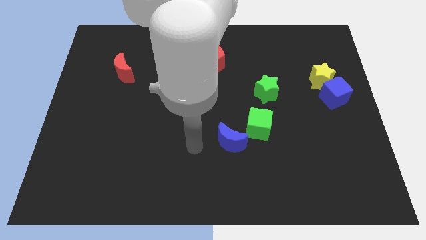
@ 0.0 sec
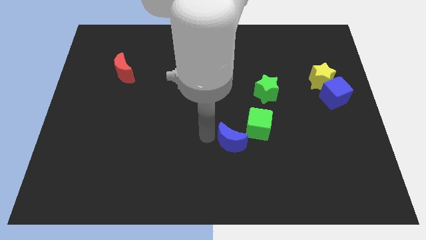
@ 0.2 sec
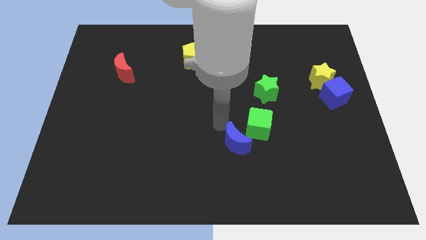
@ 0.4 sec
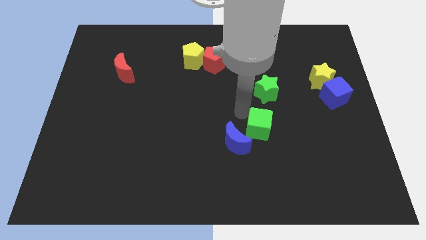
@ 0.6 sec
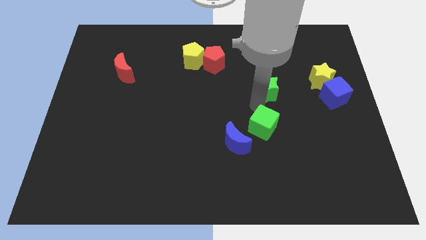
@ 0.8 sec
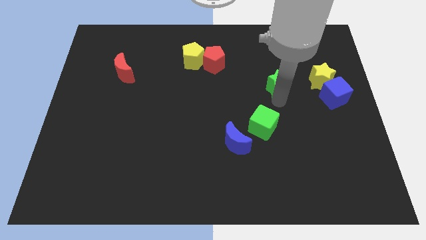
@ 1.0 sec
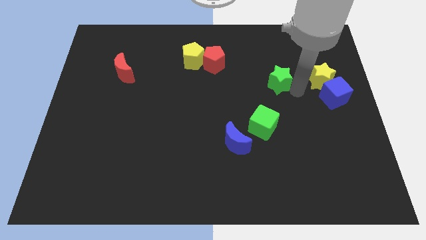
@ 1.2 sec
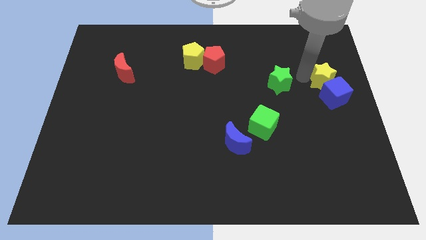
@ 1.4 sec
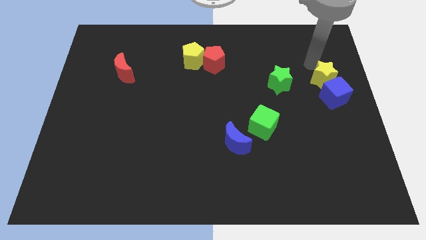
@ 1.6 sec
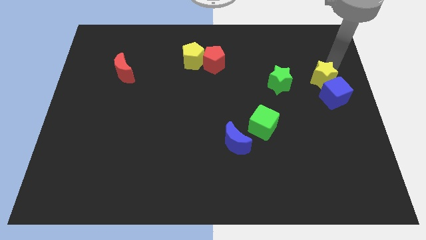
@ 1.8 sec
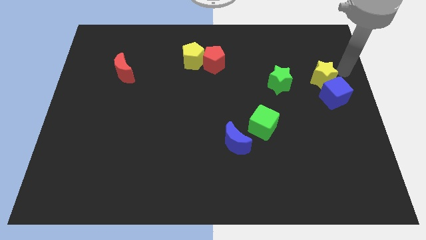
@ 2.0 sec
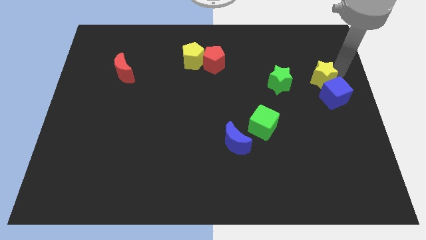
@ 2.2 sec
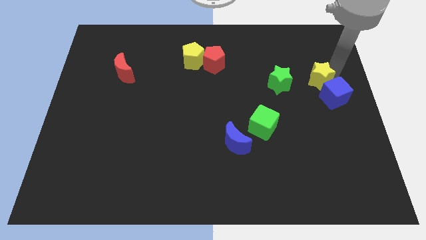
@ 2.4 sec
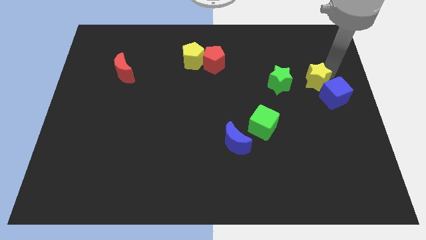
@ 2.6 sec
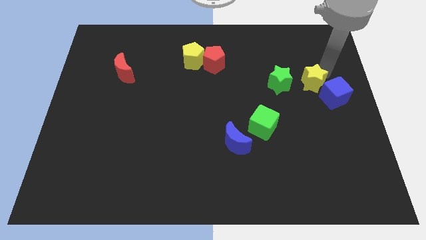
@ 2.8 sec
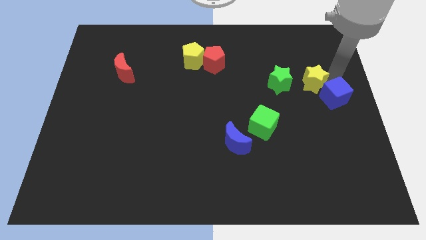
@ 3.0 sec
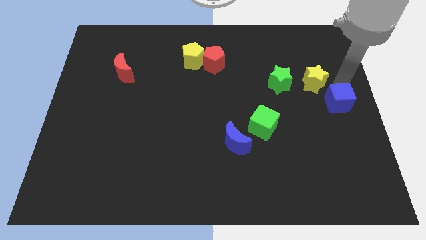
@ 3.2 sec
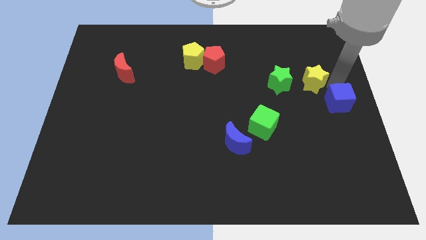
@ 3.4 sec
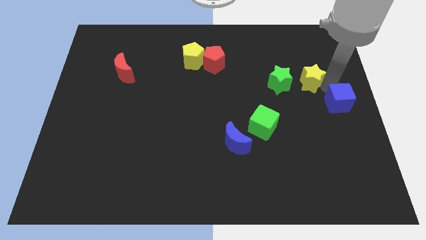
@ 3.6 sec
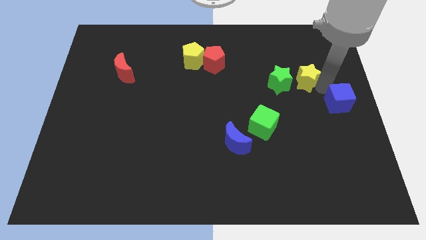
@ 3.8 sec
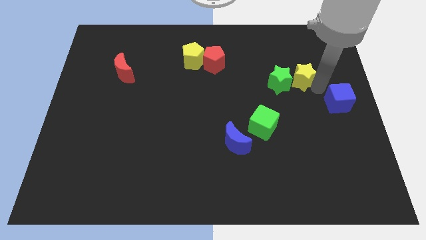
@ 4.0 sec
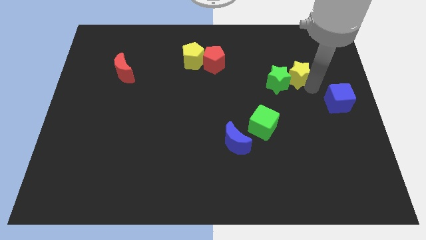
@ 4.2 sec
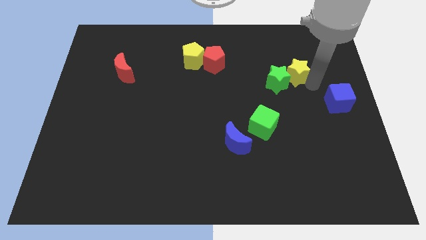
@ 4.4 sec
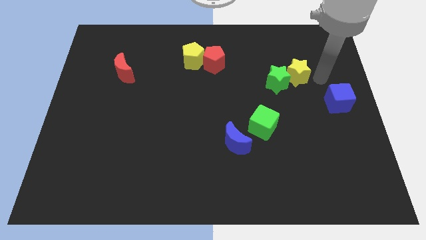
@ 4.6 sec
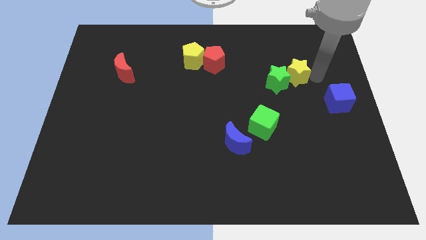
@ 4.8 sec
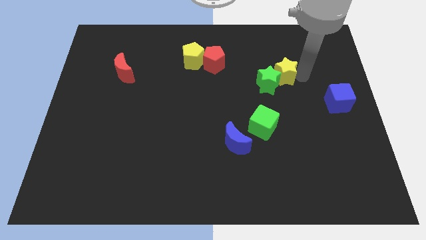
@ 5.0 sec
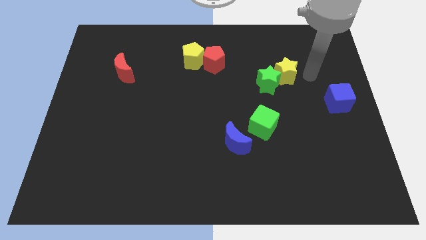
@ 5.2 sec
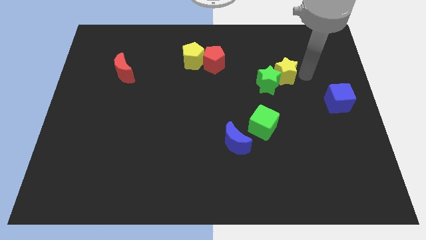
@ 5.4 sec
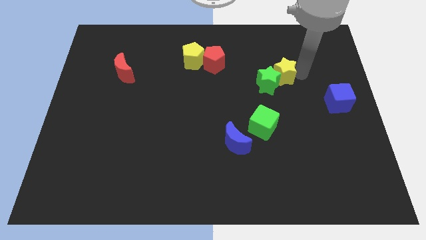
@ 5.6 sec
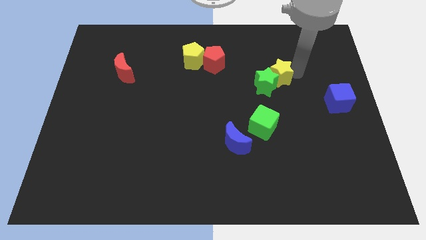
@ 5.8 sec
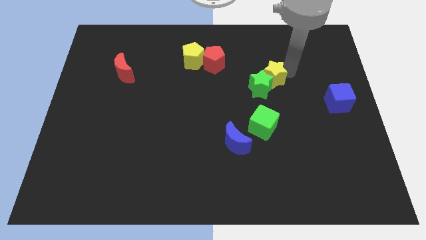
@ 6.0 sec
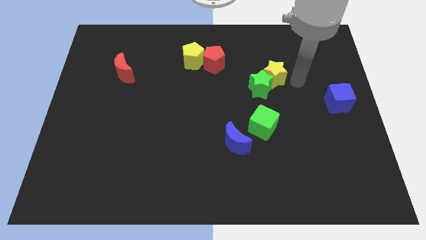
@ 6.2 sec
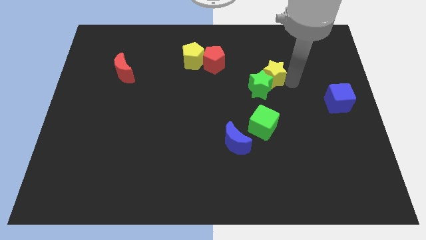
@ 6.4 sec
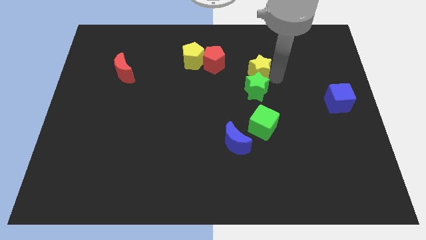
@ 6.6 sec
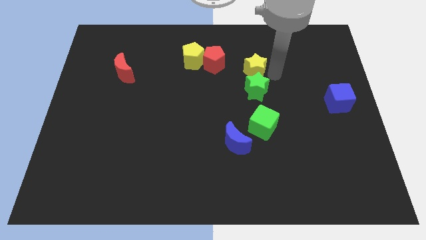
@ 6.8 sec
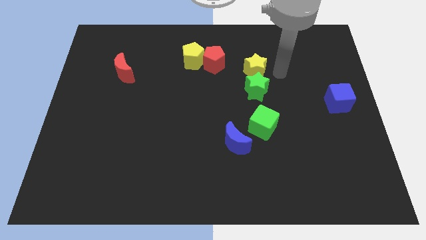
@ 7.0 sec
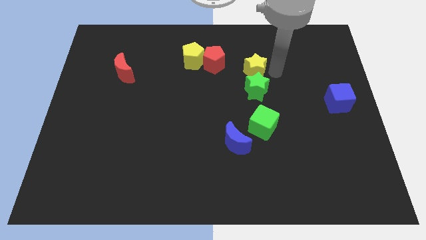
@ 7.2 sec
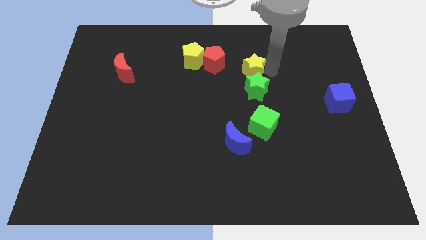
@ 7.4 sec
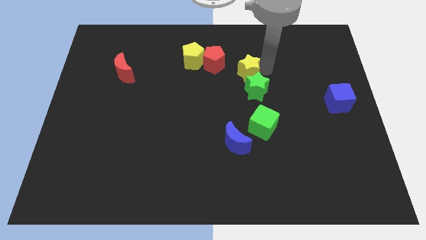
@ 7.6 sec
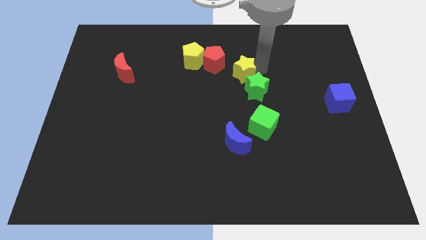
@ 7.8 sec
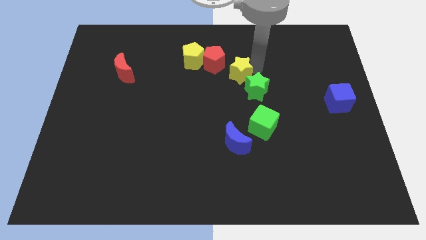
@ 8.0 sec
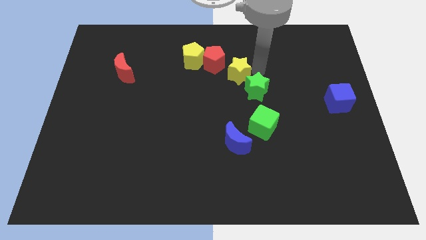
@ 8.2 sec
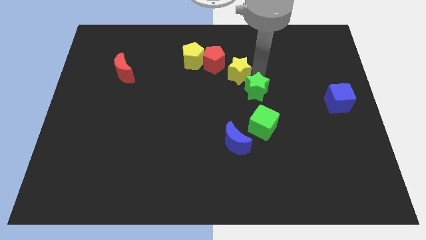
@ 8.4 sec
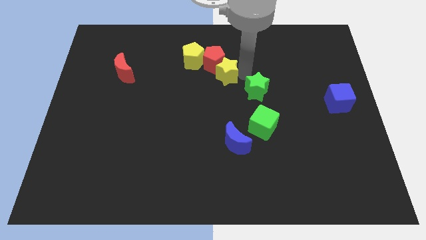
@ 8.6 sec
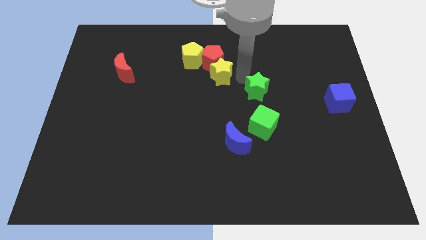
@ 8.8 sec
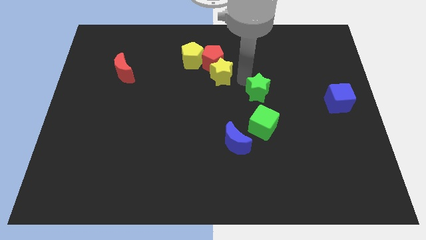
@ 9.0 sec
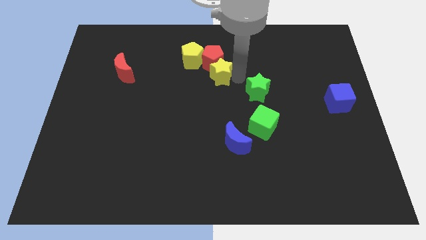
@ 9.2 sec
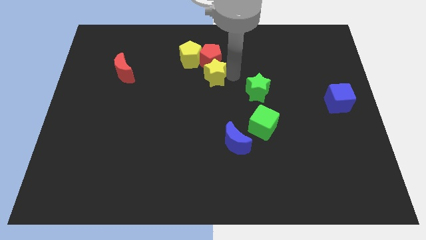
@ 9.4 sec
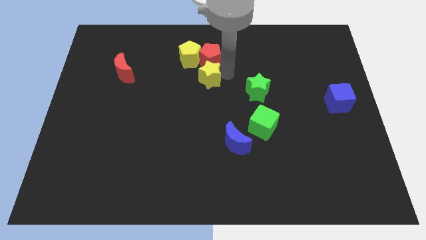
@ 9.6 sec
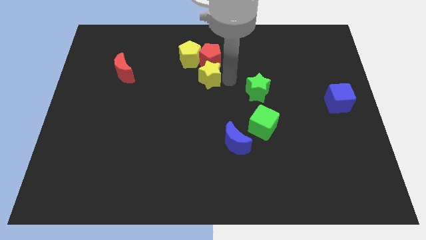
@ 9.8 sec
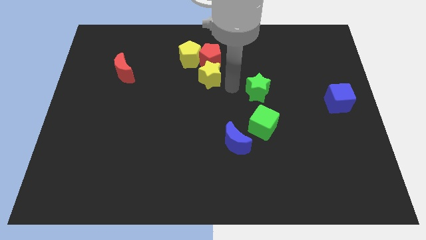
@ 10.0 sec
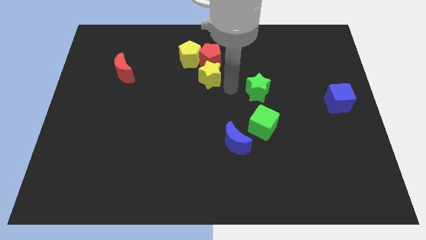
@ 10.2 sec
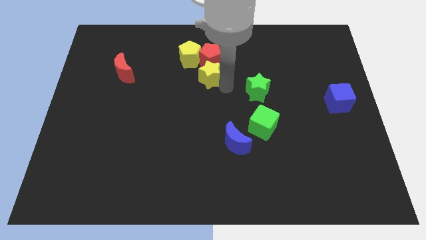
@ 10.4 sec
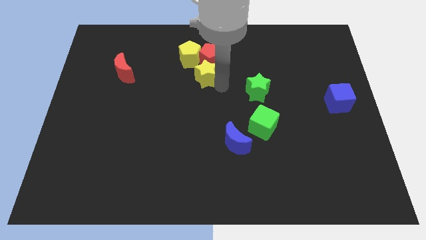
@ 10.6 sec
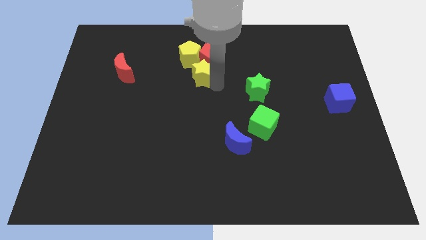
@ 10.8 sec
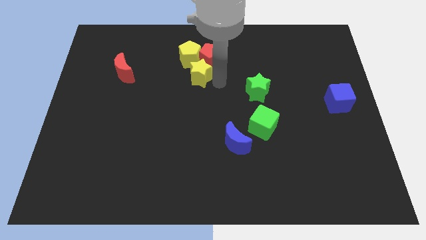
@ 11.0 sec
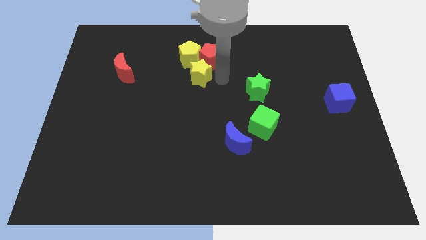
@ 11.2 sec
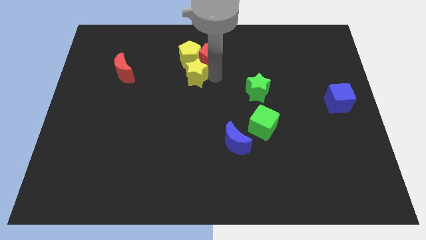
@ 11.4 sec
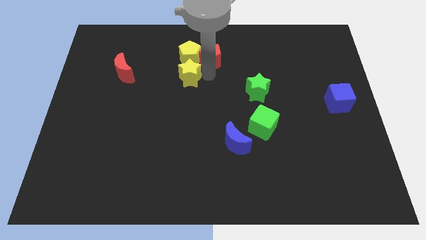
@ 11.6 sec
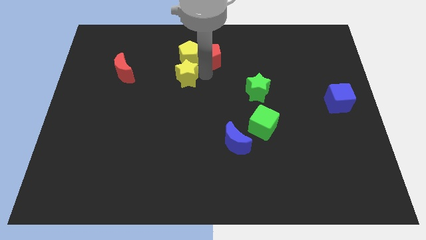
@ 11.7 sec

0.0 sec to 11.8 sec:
move the yellow star just right of the red moon

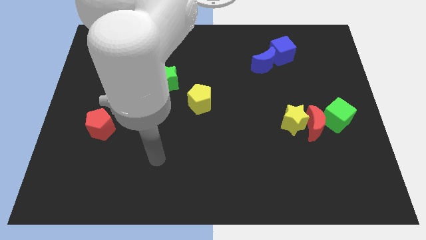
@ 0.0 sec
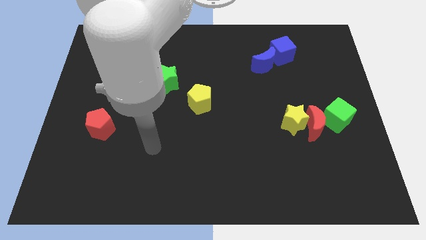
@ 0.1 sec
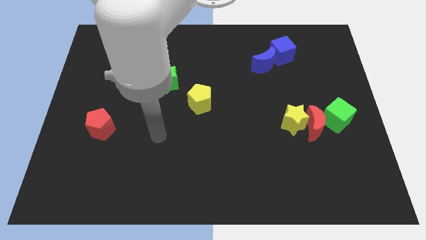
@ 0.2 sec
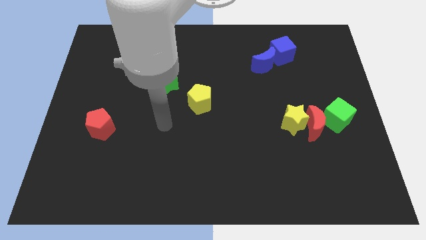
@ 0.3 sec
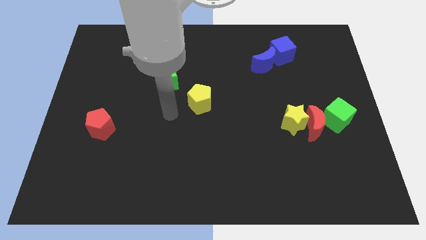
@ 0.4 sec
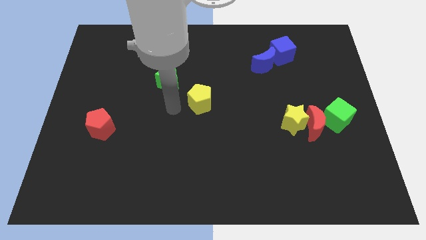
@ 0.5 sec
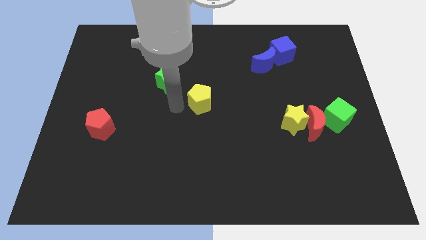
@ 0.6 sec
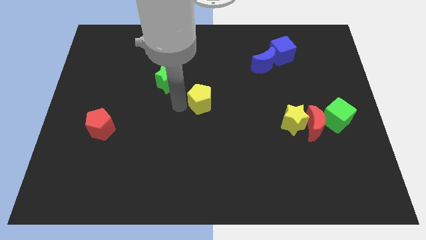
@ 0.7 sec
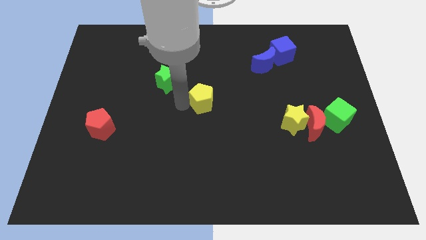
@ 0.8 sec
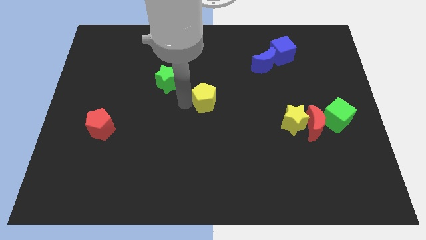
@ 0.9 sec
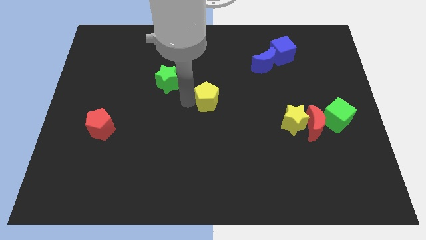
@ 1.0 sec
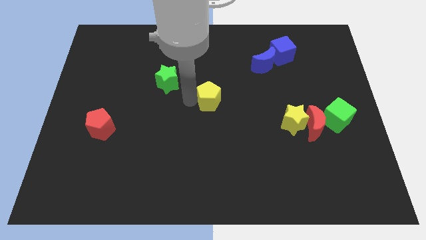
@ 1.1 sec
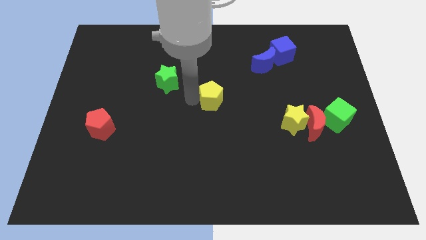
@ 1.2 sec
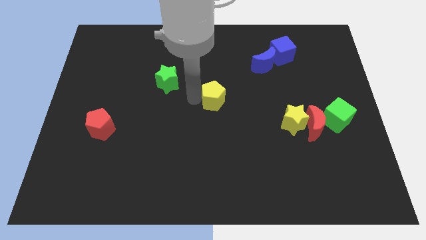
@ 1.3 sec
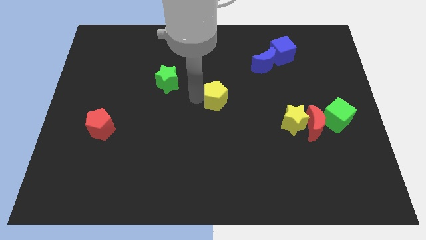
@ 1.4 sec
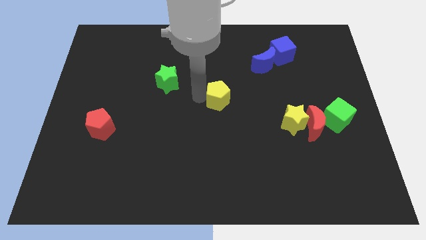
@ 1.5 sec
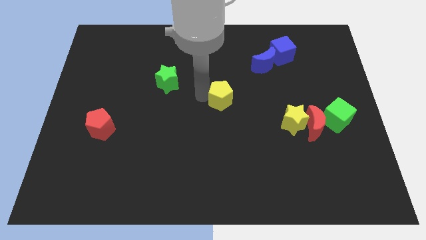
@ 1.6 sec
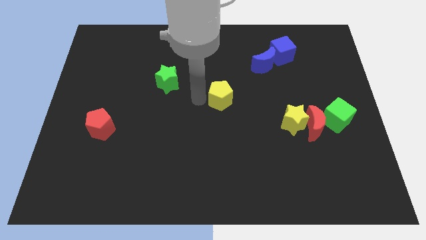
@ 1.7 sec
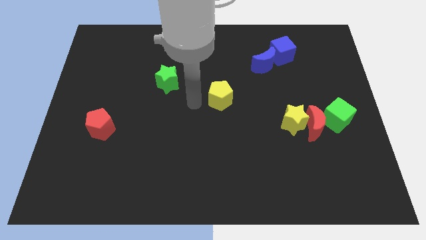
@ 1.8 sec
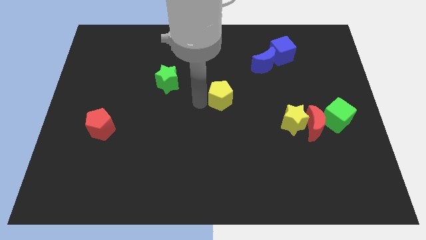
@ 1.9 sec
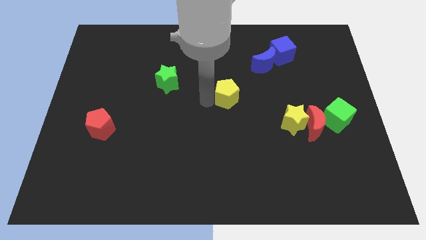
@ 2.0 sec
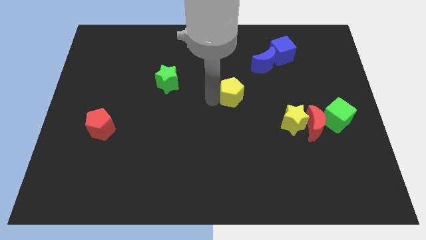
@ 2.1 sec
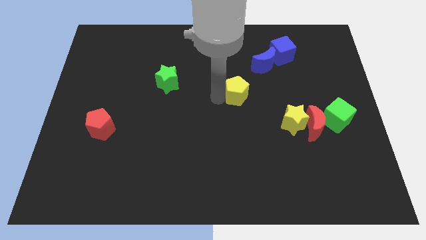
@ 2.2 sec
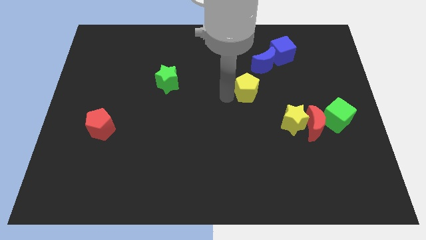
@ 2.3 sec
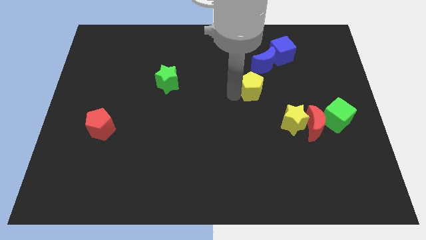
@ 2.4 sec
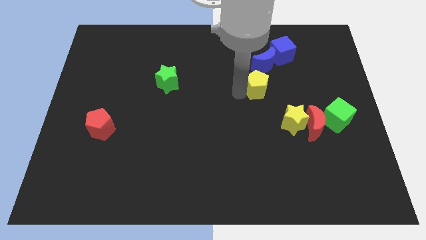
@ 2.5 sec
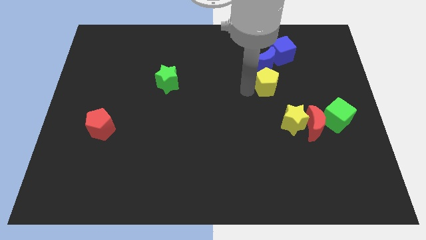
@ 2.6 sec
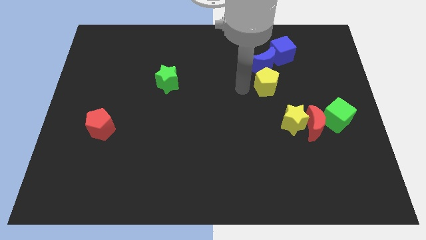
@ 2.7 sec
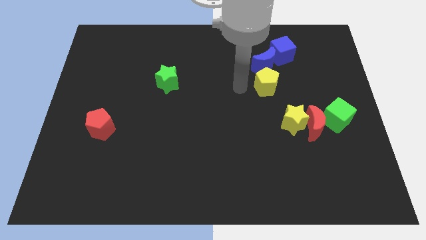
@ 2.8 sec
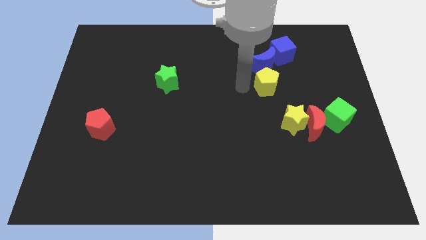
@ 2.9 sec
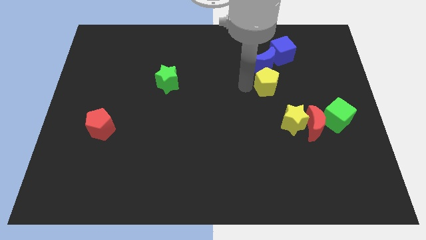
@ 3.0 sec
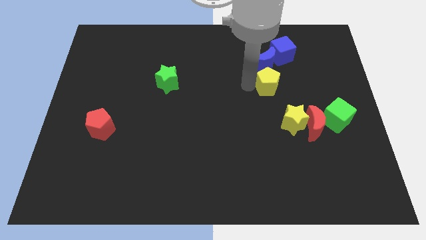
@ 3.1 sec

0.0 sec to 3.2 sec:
move the yellow pentagon to the bottom side of the blue cube
